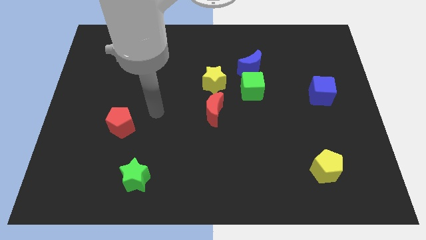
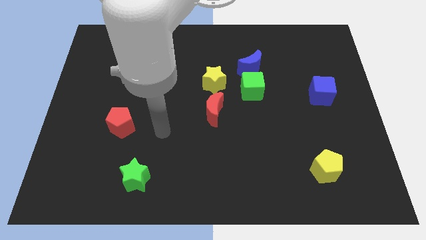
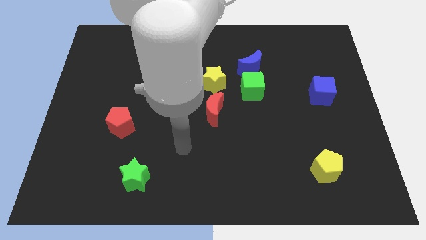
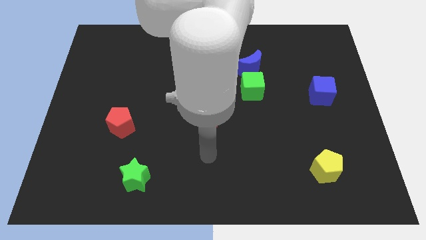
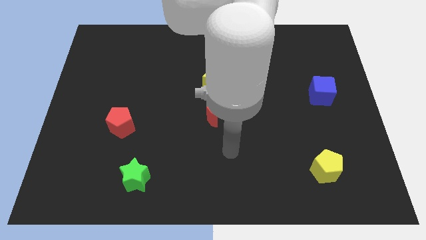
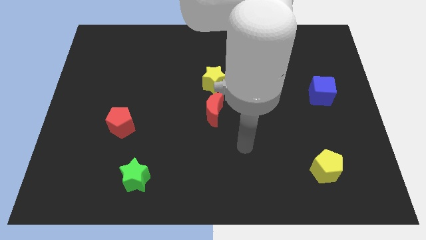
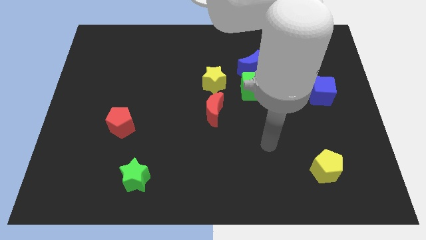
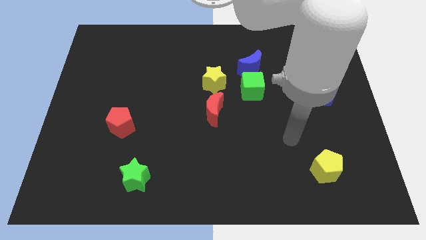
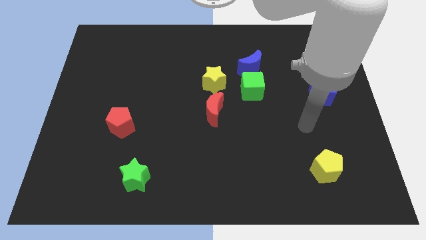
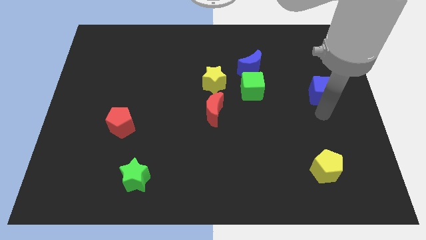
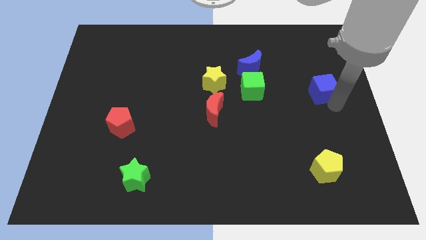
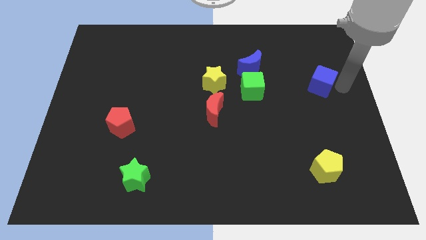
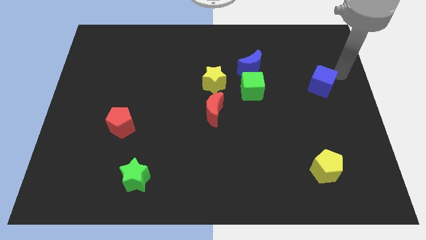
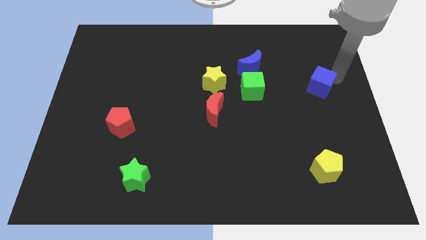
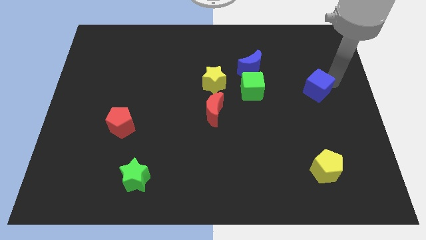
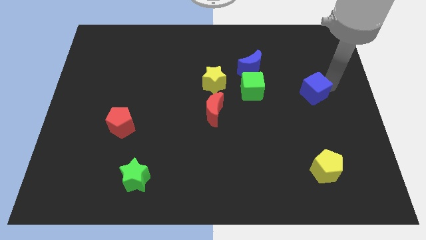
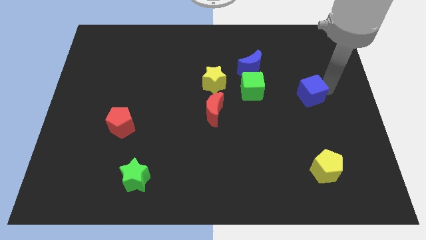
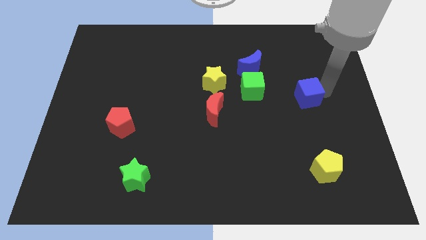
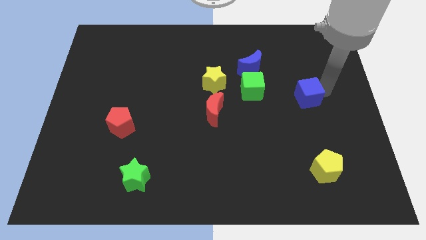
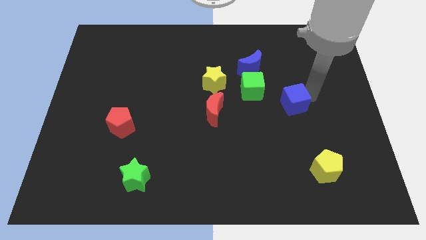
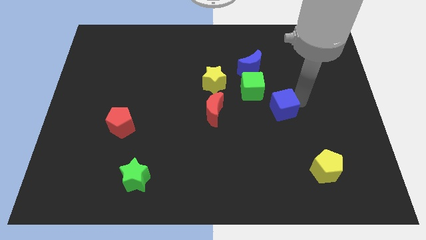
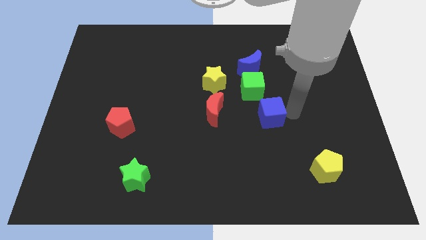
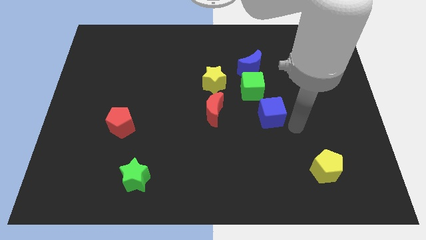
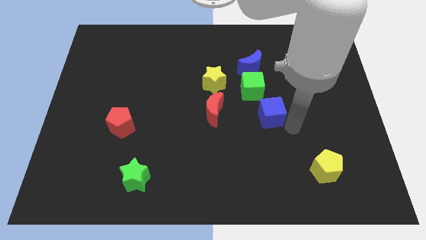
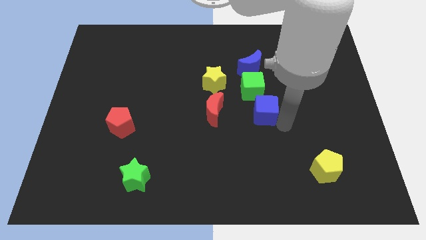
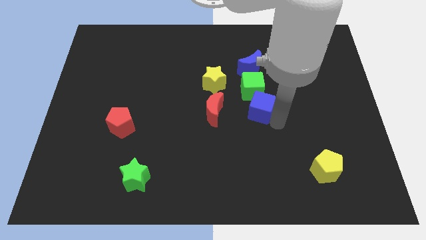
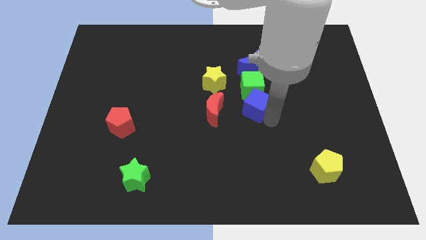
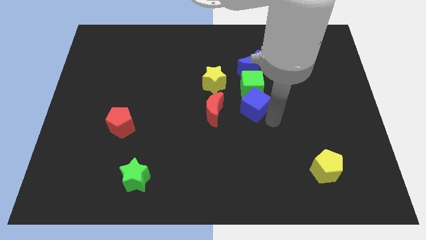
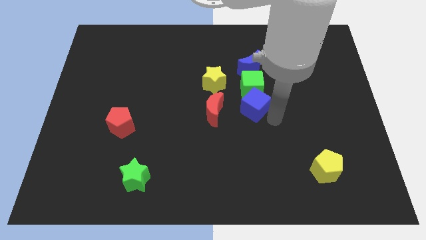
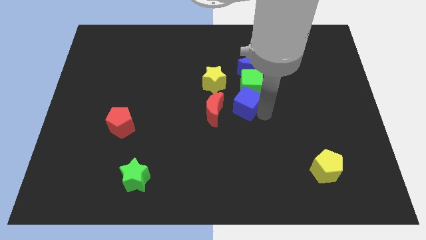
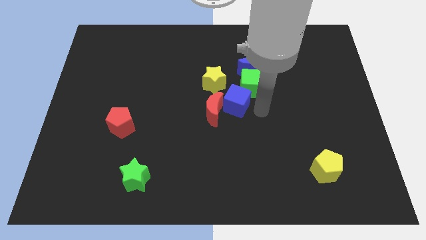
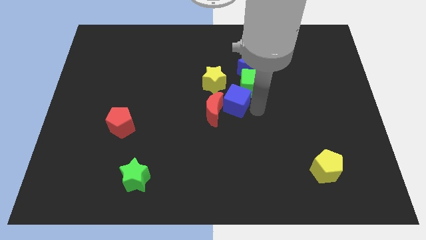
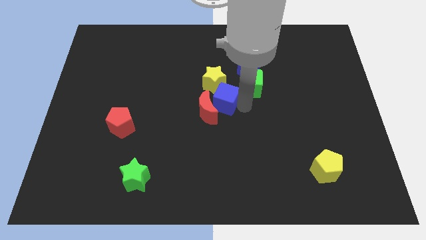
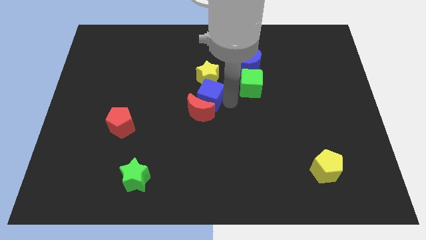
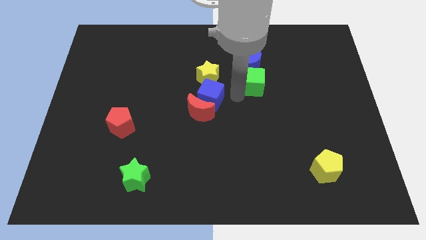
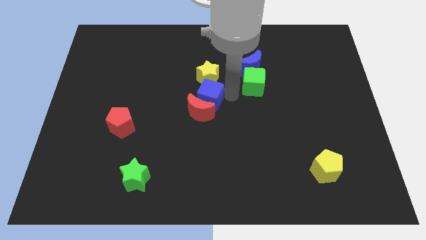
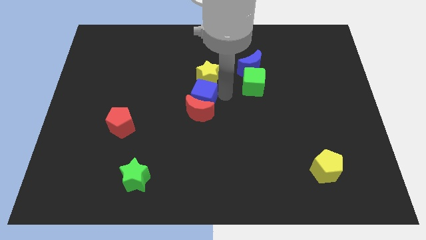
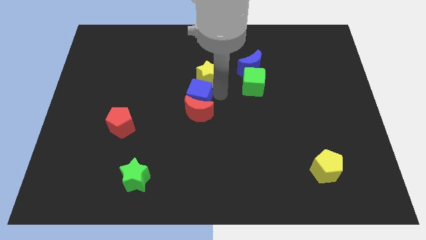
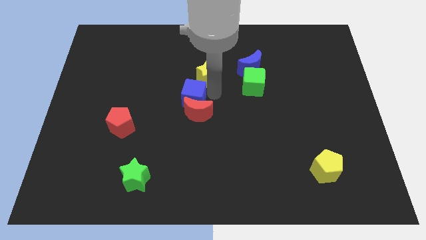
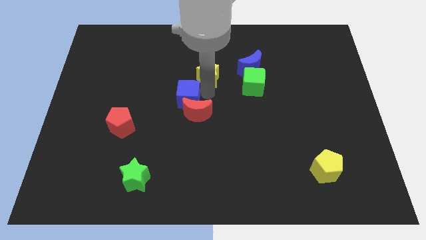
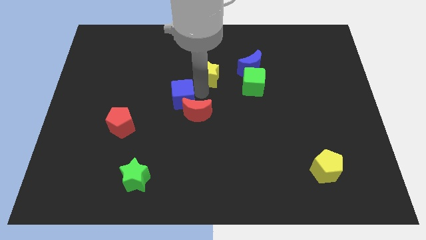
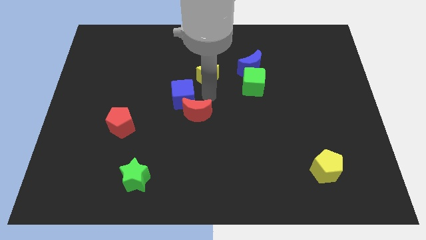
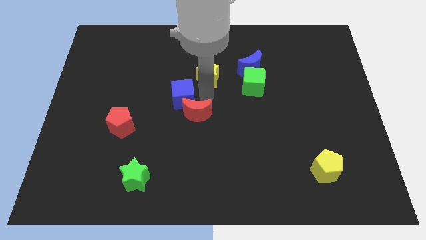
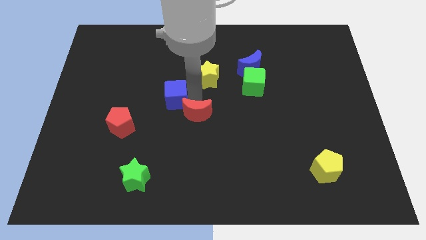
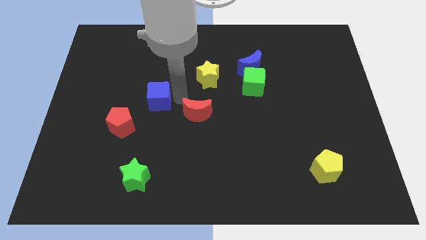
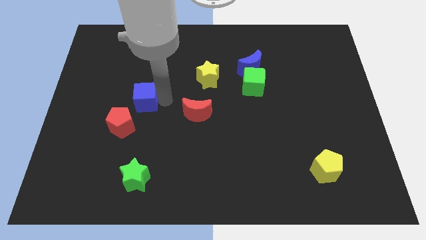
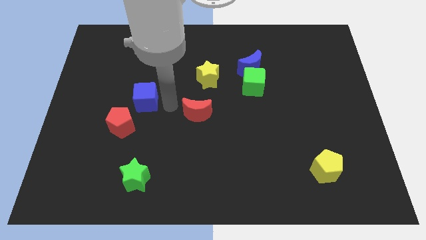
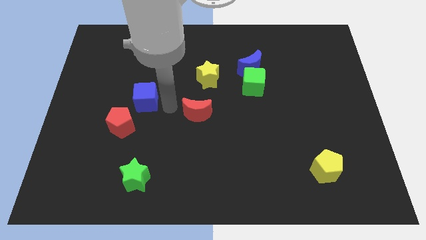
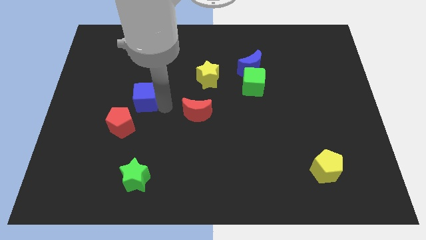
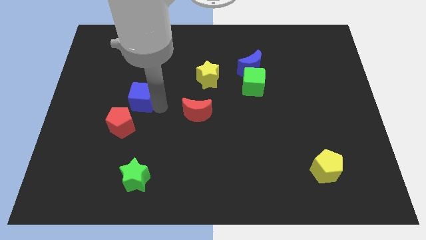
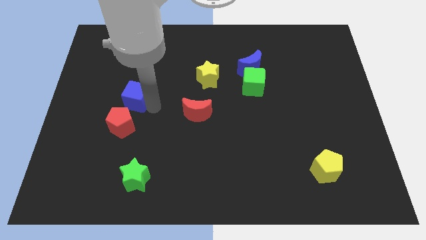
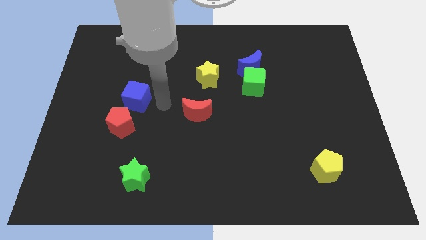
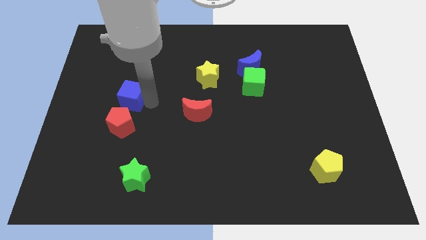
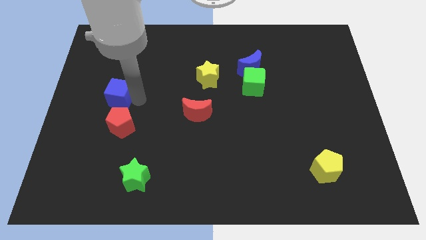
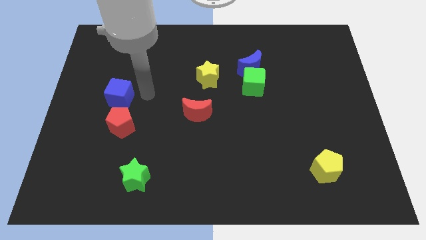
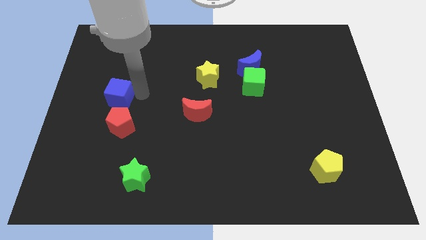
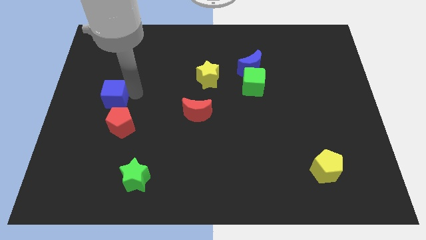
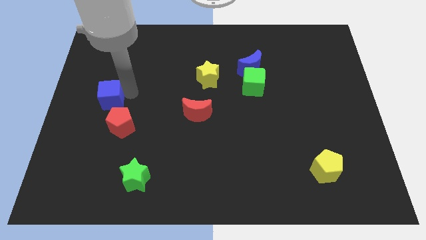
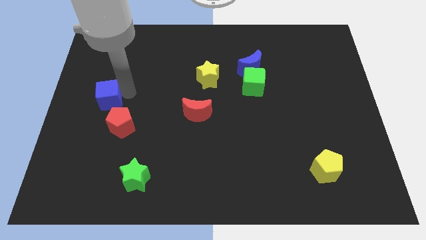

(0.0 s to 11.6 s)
put the blue cube to the left side

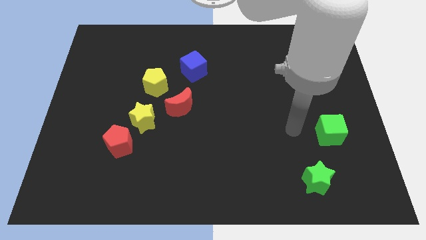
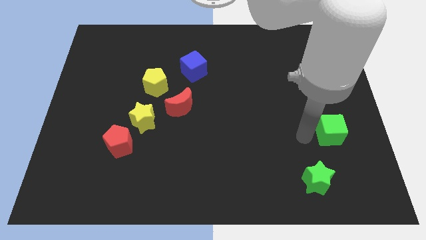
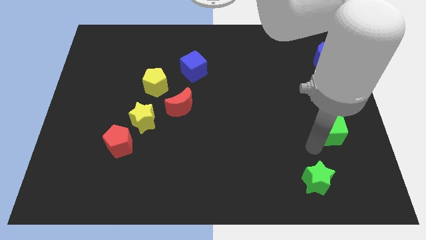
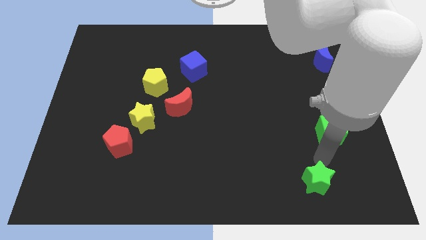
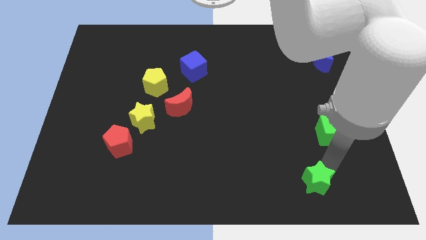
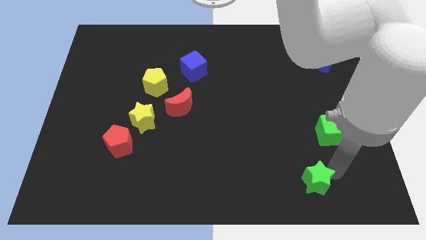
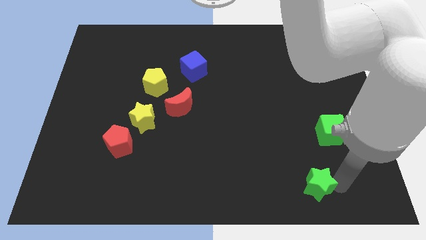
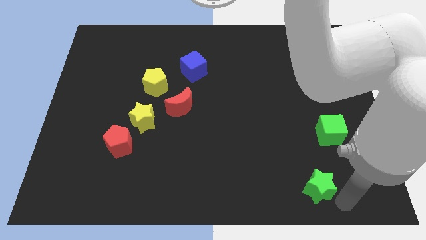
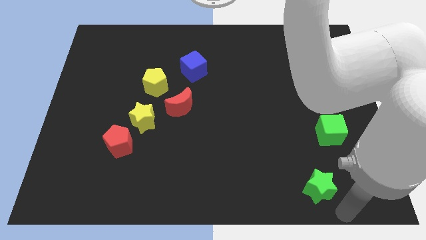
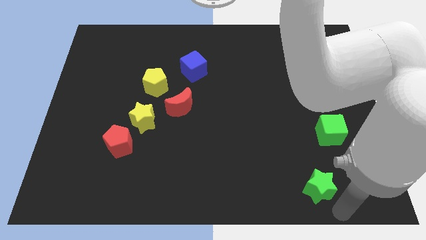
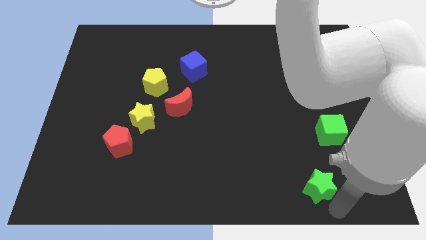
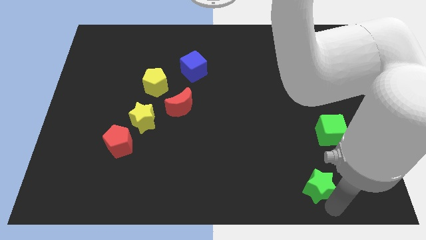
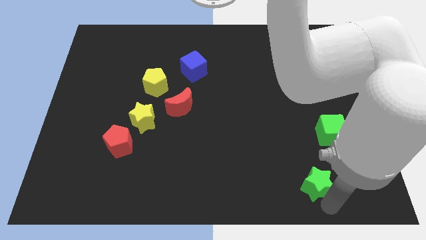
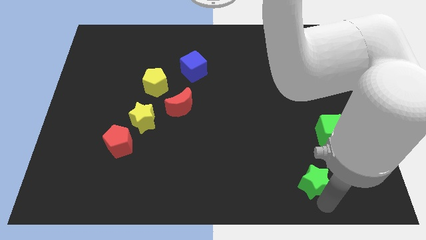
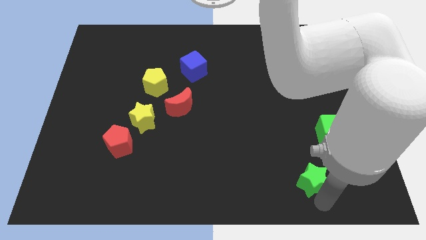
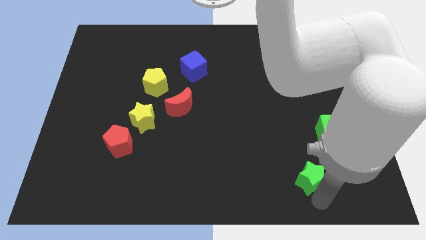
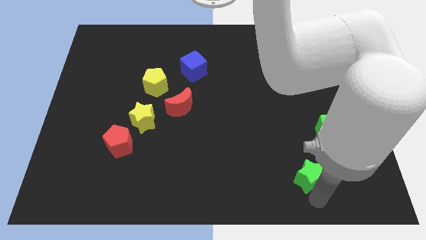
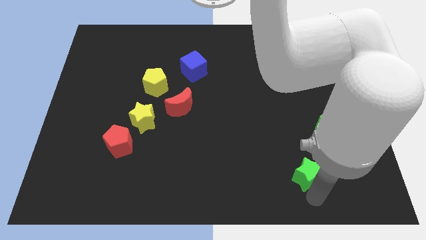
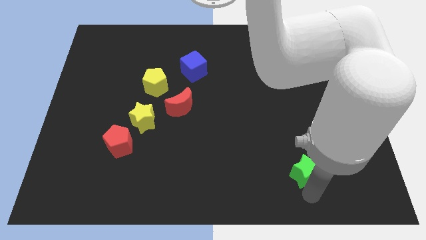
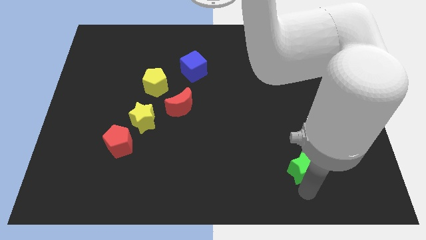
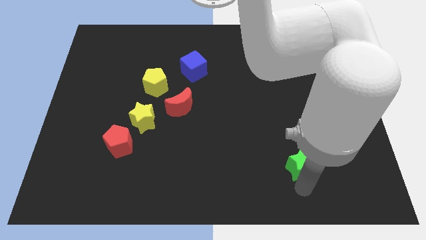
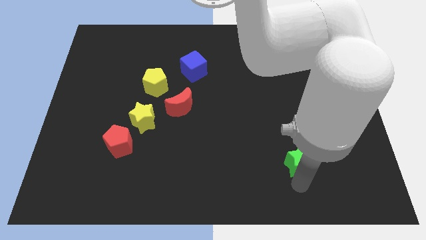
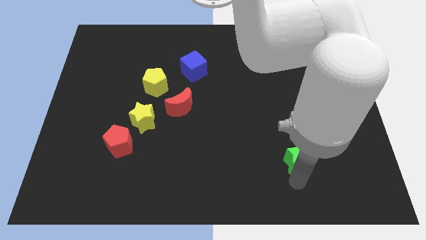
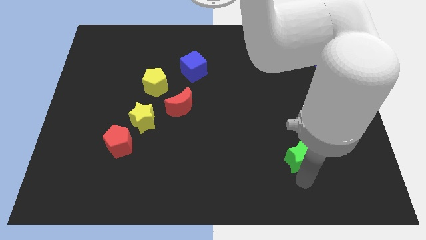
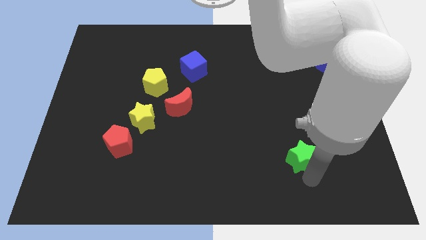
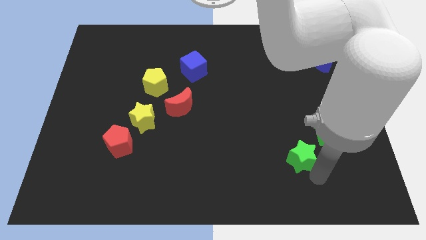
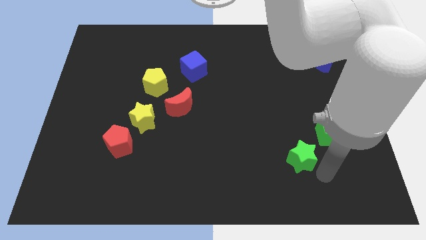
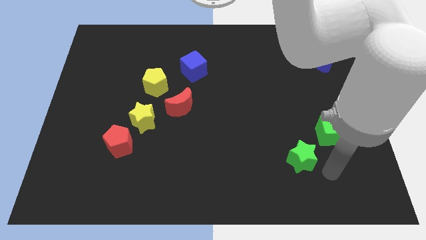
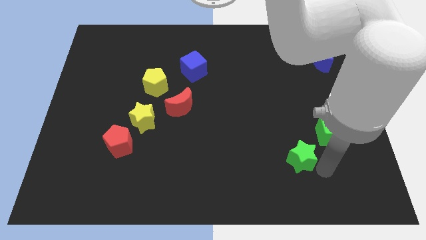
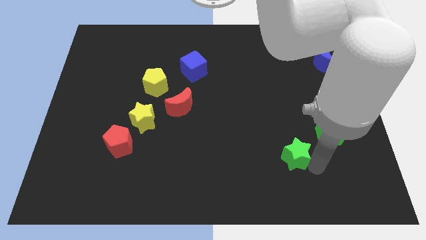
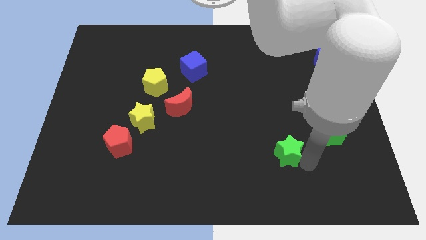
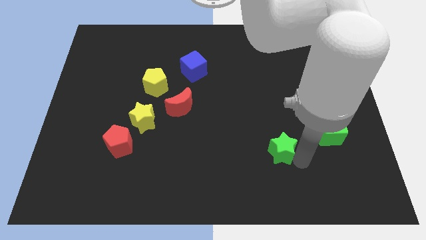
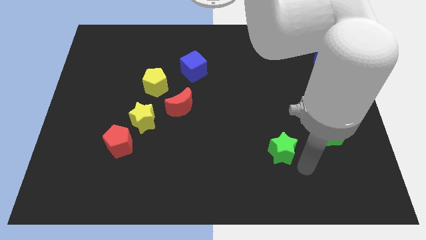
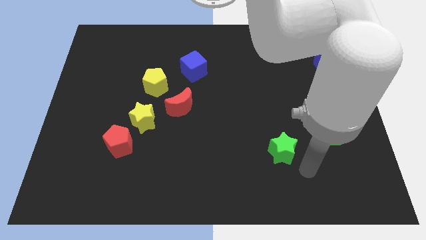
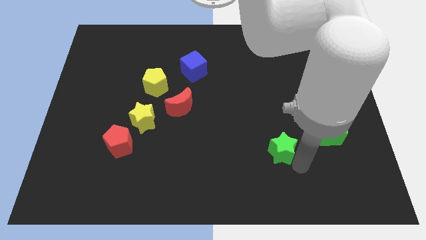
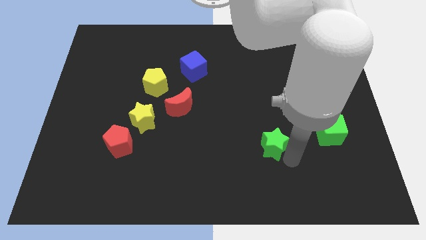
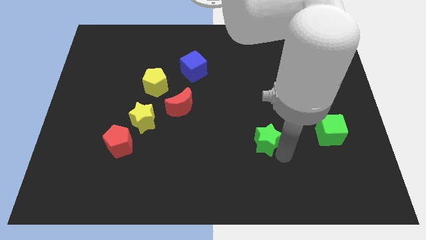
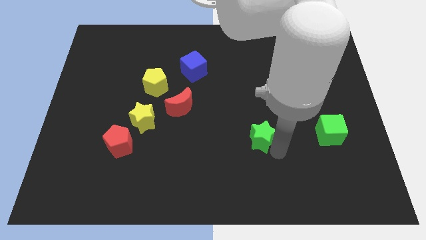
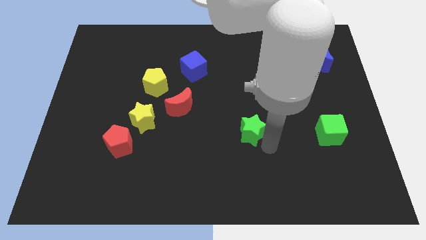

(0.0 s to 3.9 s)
put the green star to the middle of the board
